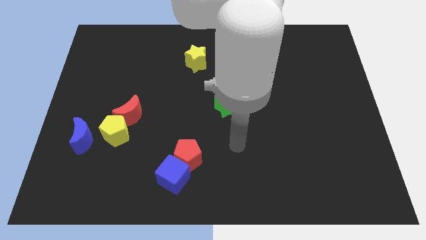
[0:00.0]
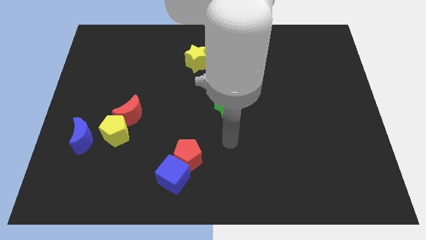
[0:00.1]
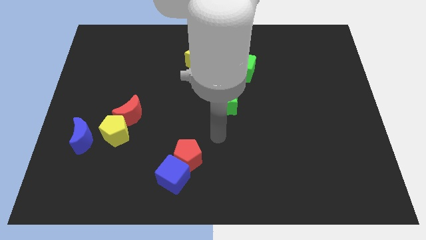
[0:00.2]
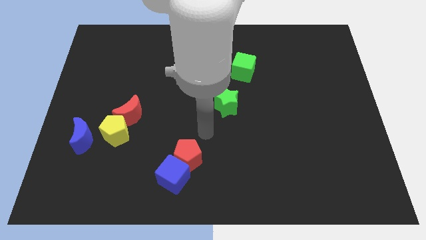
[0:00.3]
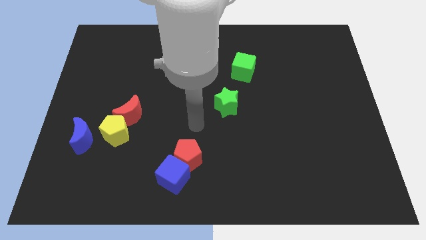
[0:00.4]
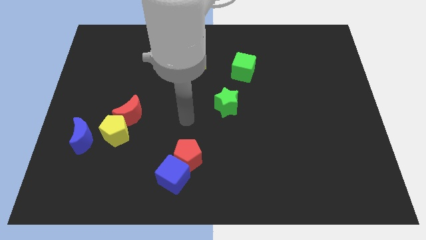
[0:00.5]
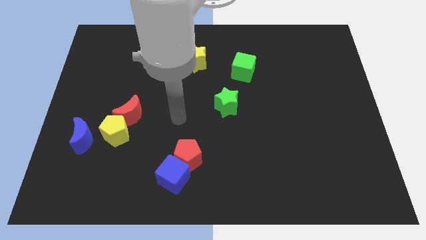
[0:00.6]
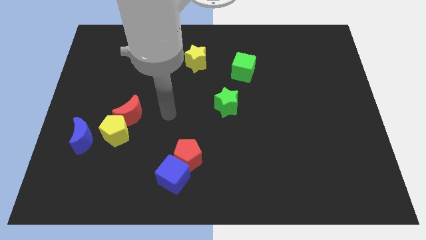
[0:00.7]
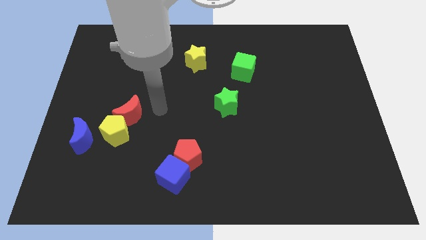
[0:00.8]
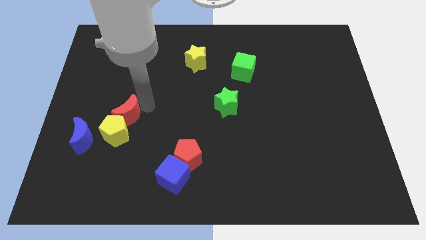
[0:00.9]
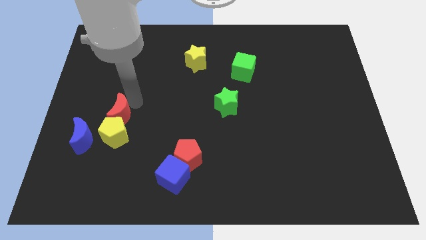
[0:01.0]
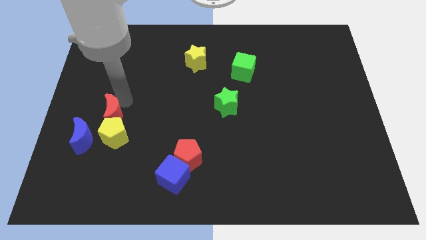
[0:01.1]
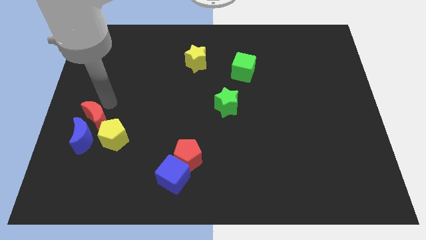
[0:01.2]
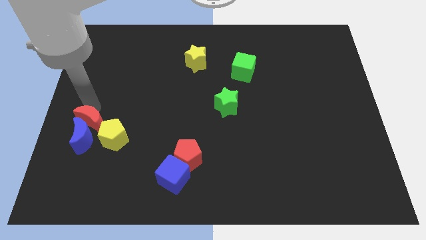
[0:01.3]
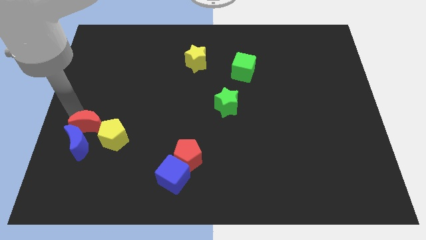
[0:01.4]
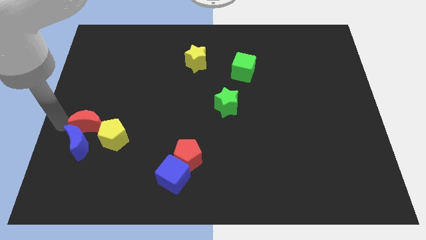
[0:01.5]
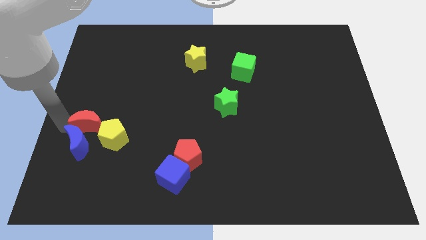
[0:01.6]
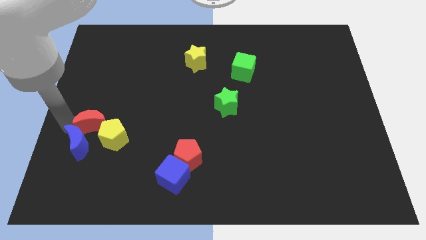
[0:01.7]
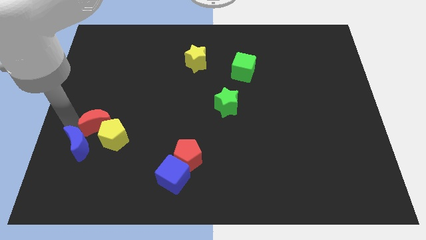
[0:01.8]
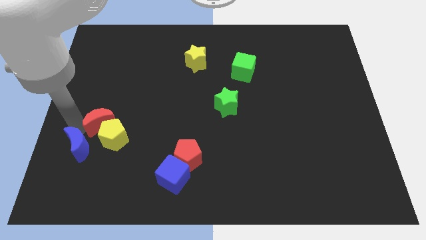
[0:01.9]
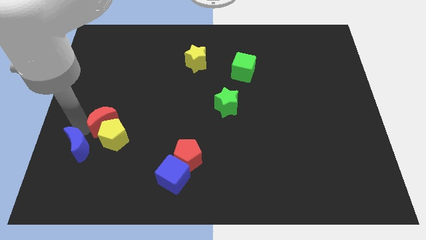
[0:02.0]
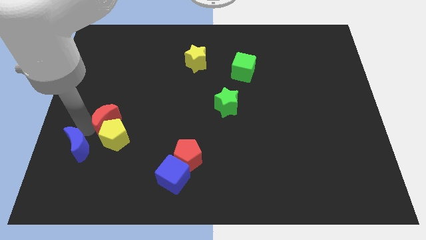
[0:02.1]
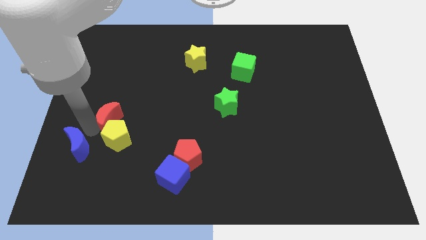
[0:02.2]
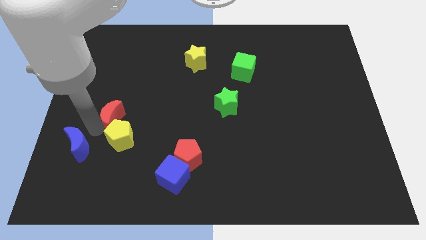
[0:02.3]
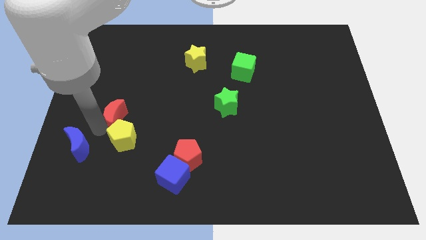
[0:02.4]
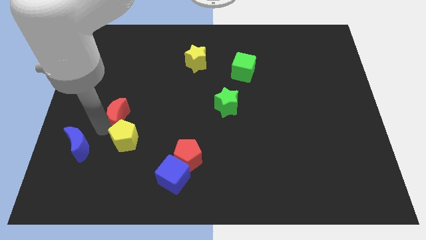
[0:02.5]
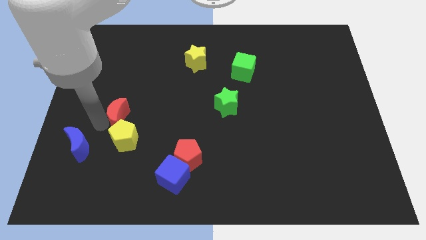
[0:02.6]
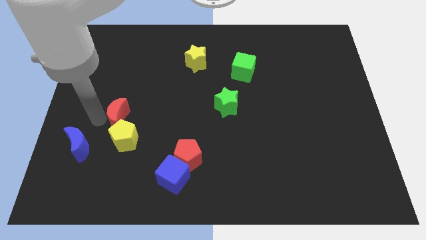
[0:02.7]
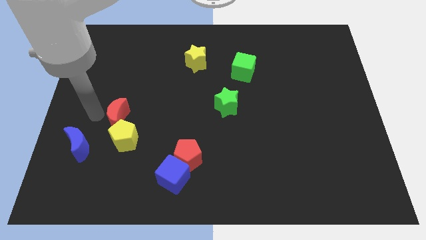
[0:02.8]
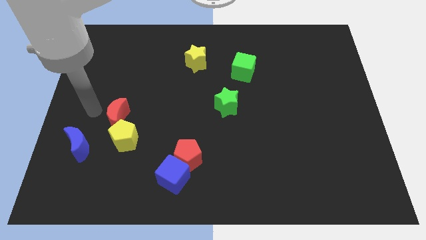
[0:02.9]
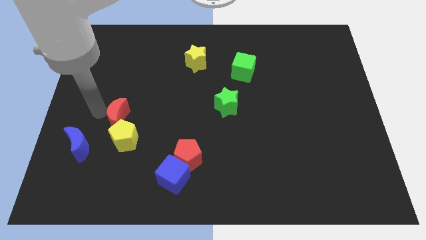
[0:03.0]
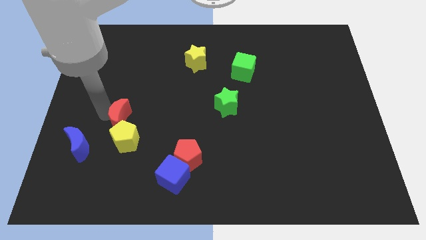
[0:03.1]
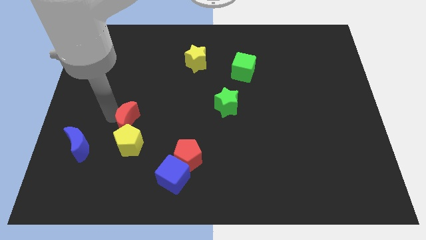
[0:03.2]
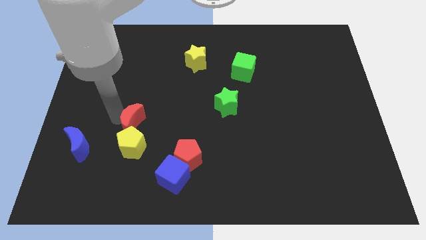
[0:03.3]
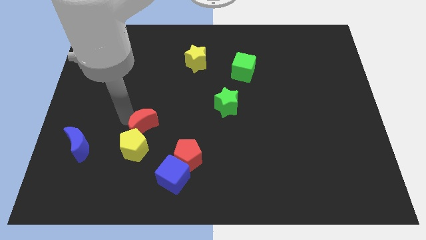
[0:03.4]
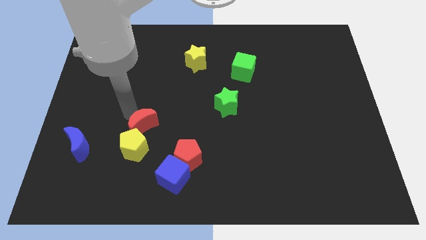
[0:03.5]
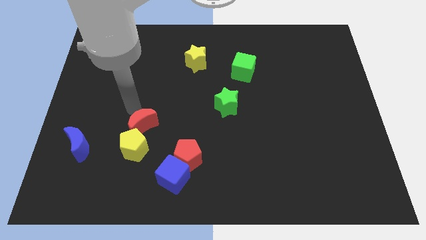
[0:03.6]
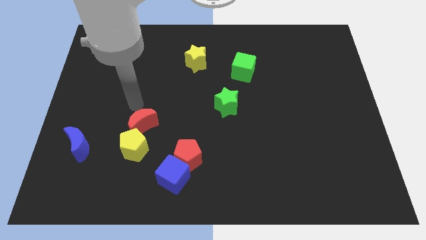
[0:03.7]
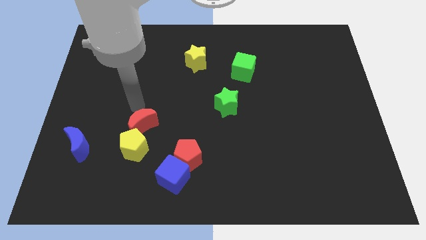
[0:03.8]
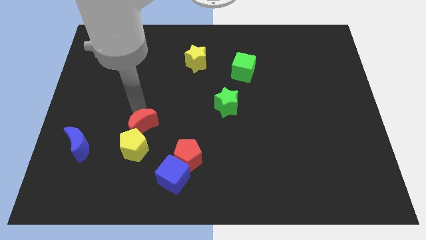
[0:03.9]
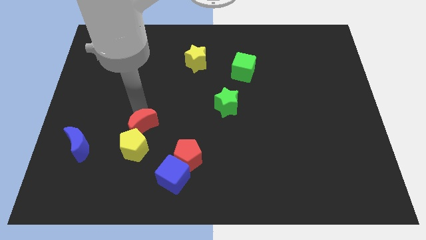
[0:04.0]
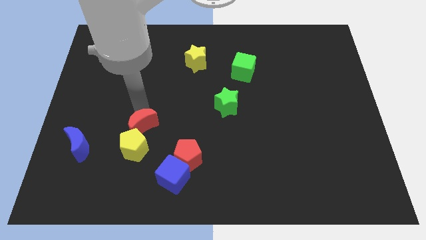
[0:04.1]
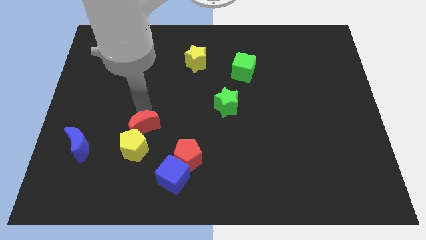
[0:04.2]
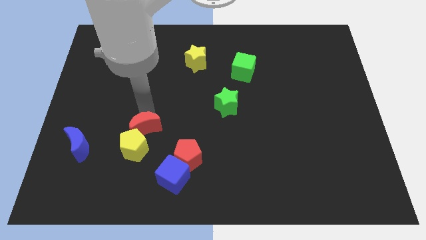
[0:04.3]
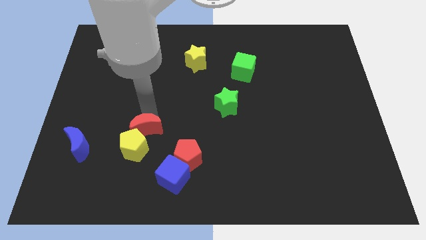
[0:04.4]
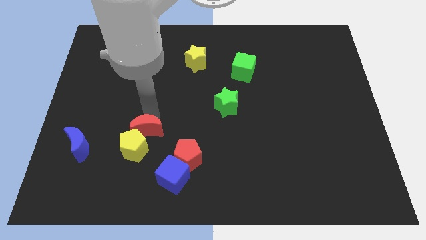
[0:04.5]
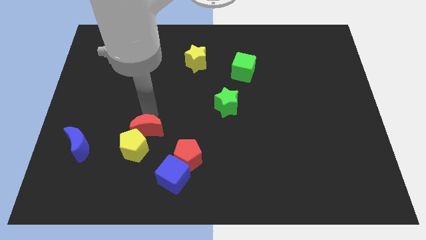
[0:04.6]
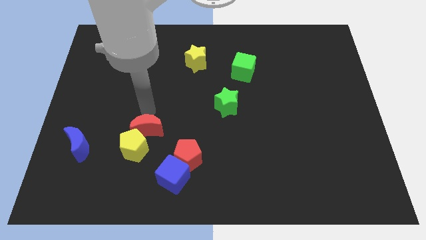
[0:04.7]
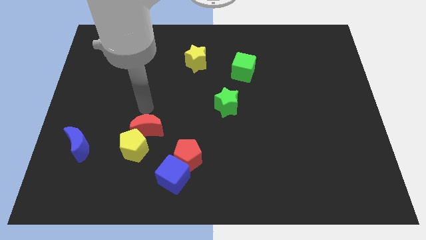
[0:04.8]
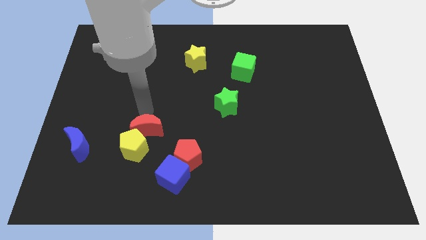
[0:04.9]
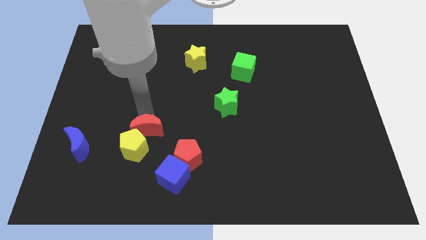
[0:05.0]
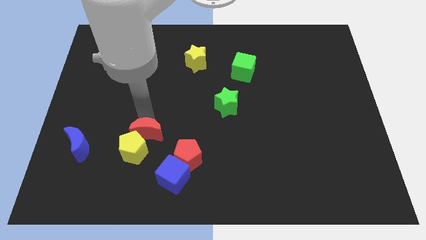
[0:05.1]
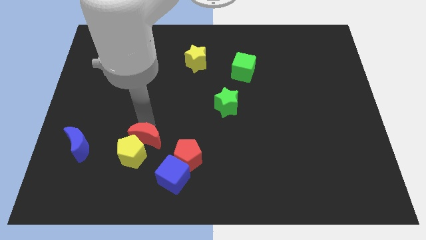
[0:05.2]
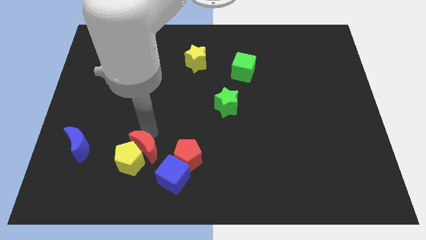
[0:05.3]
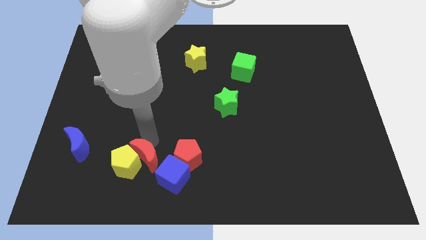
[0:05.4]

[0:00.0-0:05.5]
push the red moon just left of the blue cube
